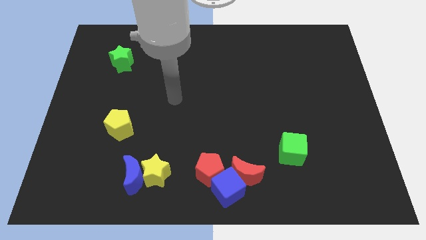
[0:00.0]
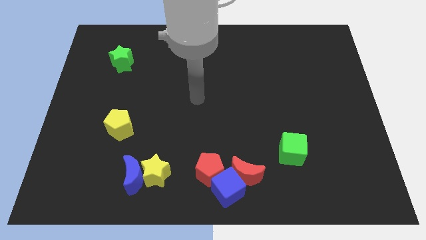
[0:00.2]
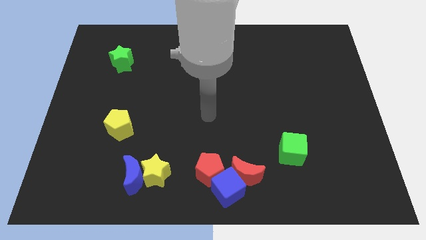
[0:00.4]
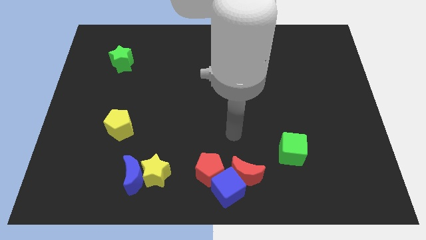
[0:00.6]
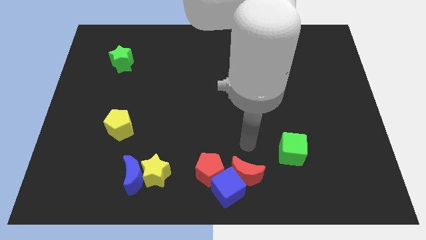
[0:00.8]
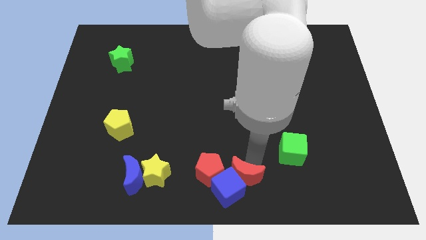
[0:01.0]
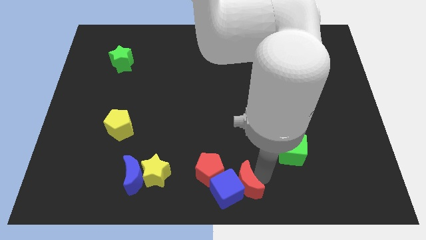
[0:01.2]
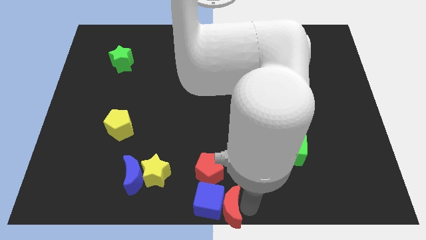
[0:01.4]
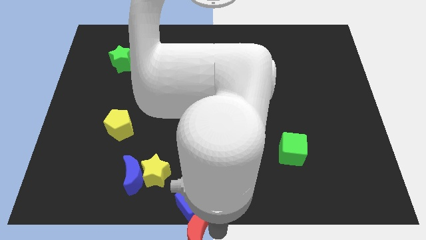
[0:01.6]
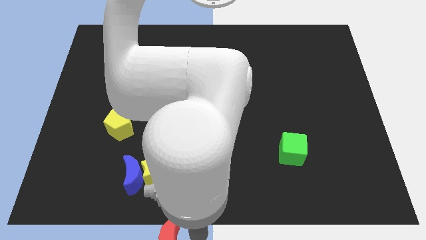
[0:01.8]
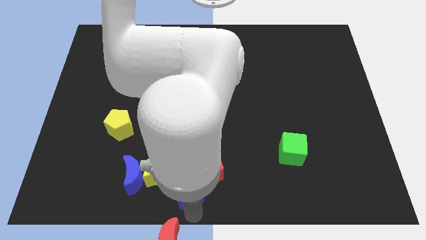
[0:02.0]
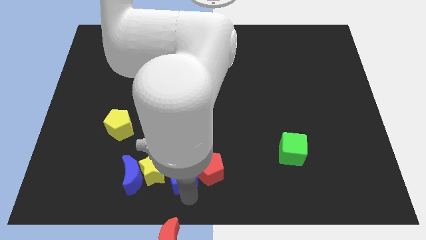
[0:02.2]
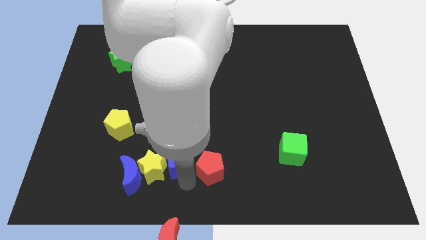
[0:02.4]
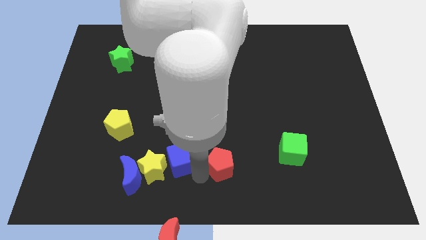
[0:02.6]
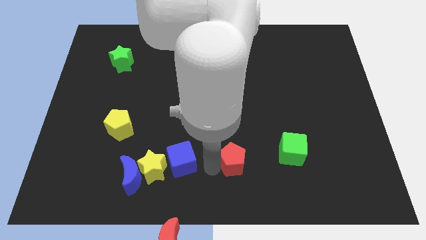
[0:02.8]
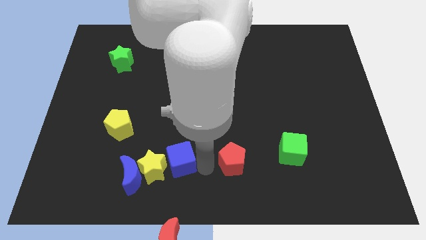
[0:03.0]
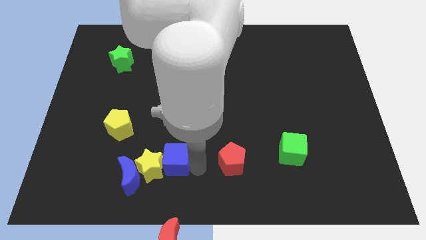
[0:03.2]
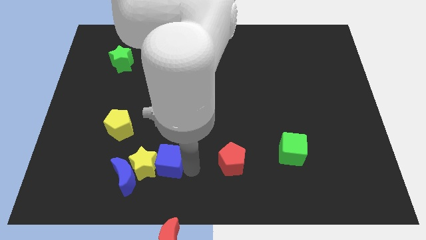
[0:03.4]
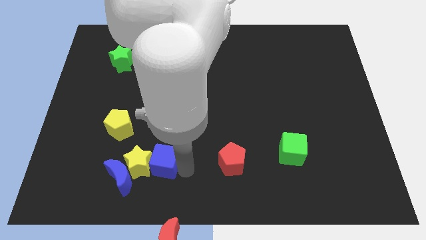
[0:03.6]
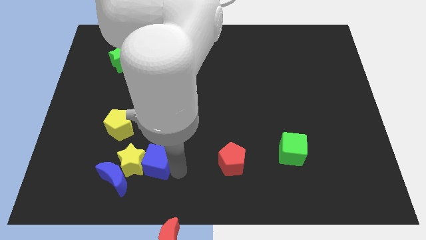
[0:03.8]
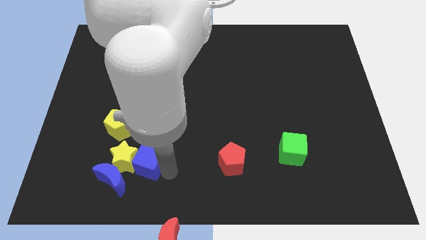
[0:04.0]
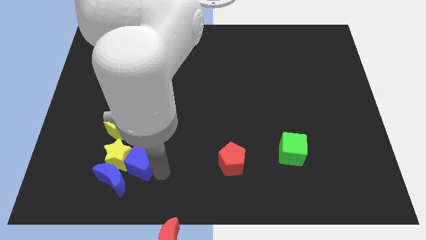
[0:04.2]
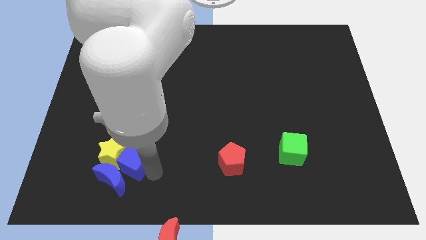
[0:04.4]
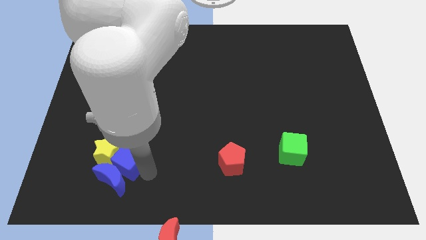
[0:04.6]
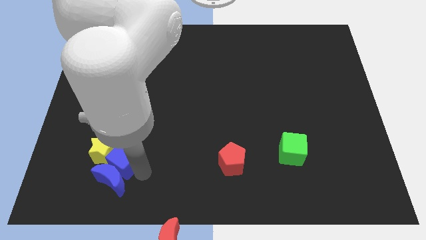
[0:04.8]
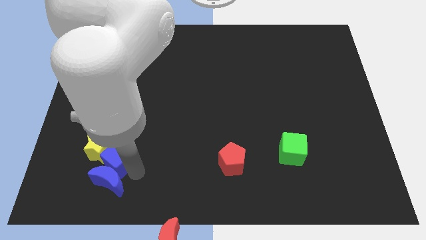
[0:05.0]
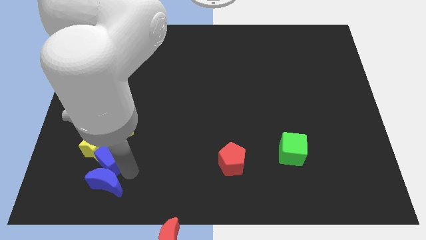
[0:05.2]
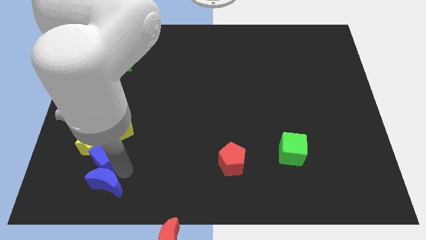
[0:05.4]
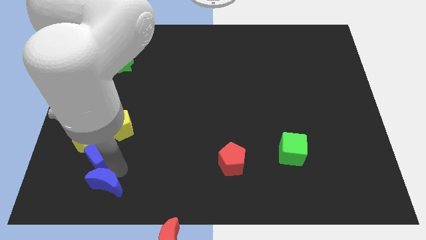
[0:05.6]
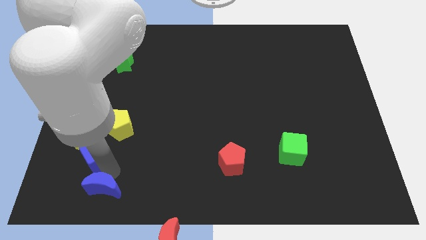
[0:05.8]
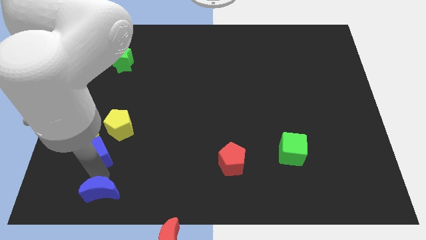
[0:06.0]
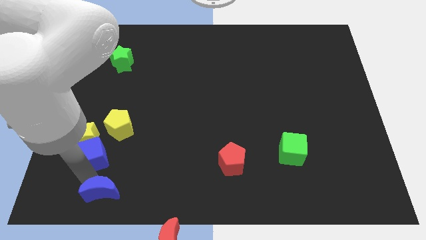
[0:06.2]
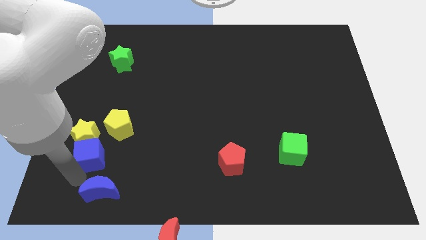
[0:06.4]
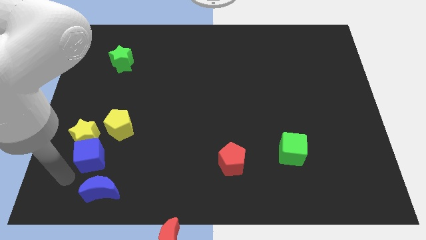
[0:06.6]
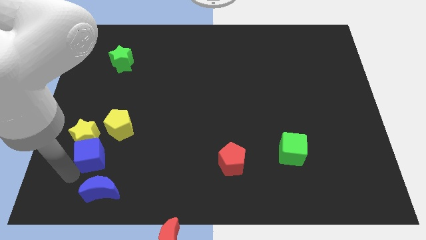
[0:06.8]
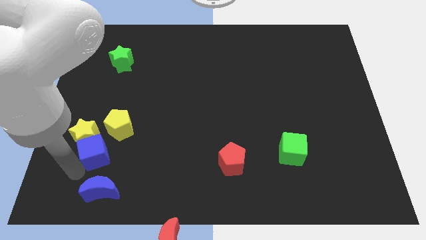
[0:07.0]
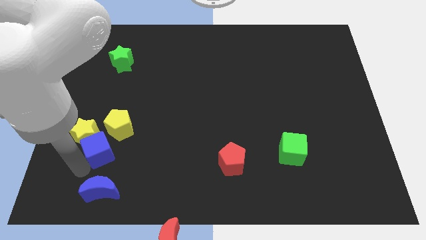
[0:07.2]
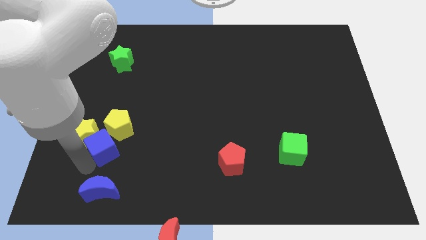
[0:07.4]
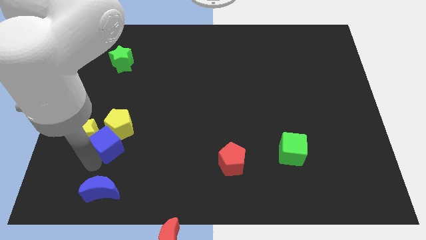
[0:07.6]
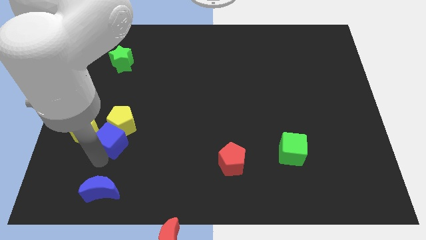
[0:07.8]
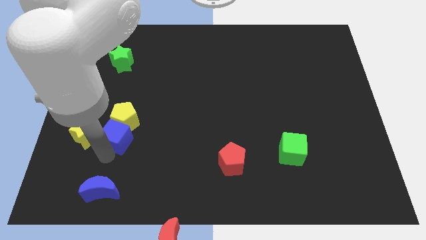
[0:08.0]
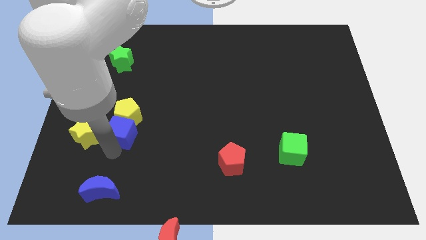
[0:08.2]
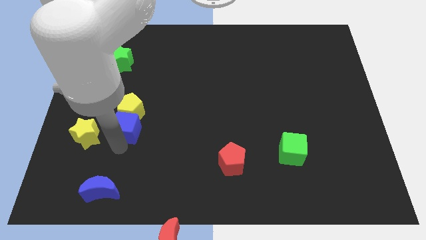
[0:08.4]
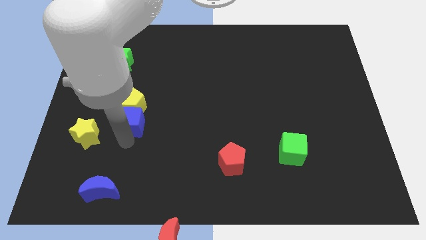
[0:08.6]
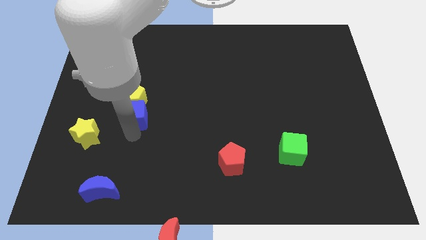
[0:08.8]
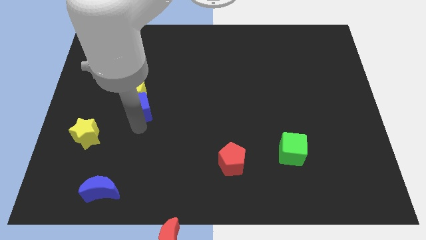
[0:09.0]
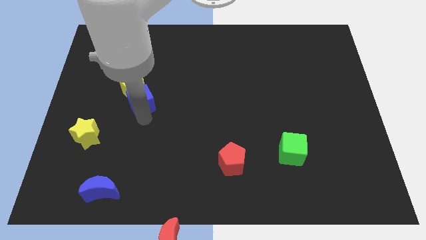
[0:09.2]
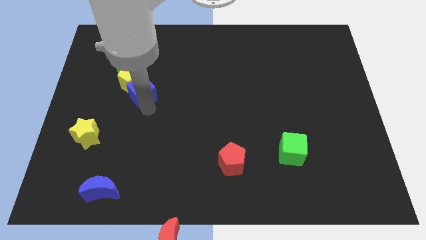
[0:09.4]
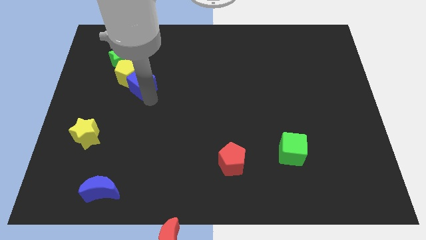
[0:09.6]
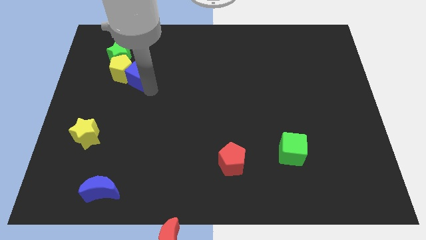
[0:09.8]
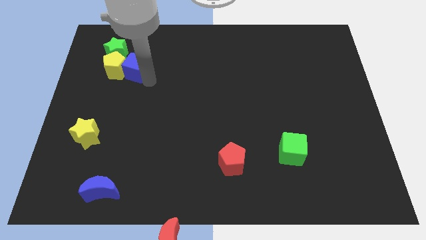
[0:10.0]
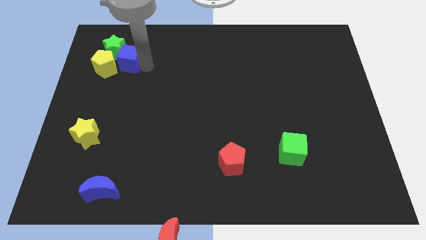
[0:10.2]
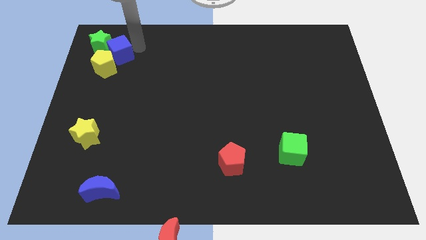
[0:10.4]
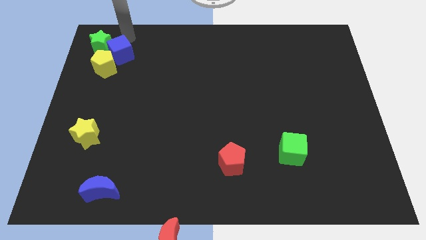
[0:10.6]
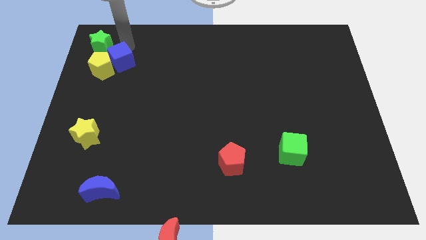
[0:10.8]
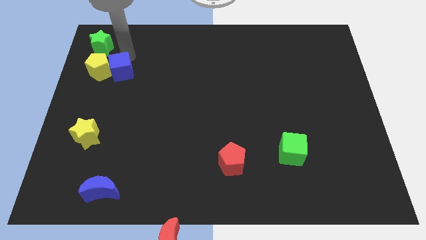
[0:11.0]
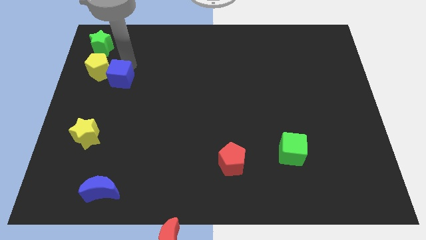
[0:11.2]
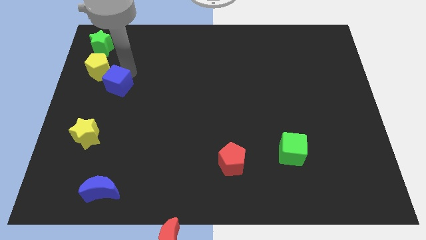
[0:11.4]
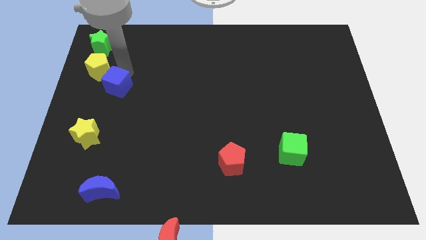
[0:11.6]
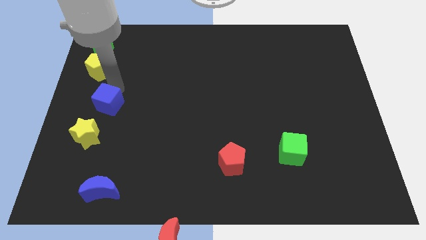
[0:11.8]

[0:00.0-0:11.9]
slide the blue cube to the left side

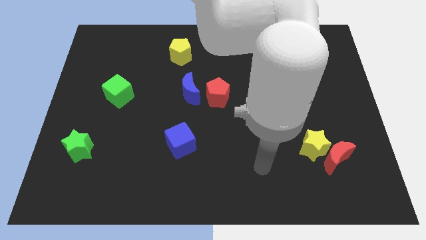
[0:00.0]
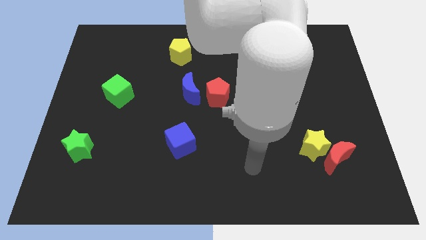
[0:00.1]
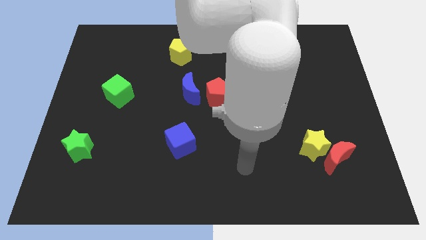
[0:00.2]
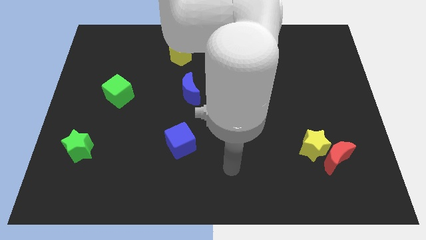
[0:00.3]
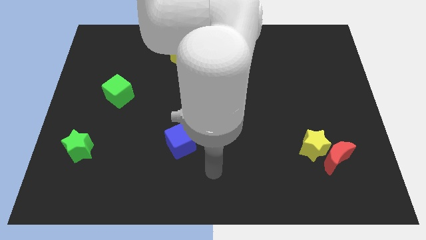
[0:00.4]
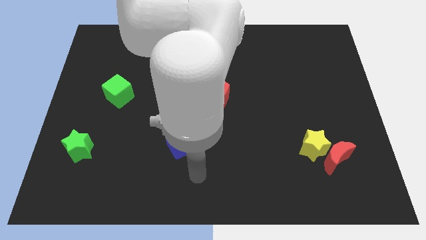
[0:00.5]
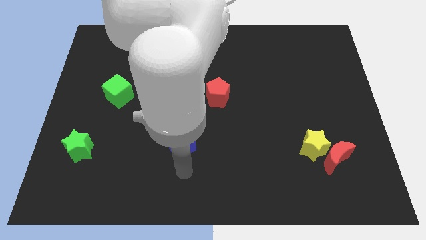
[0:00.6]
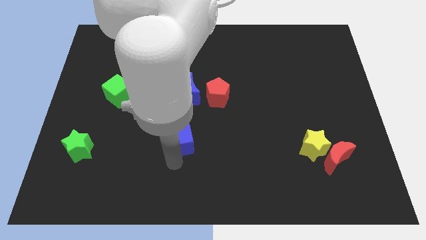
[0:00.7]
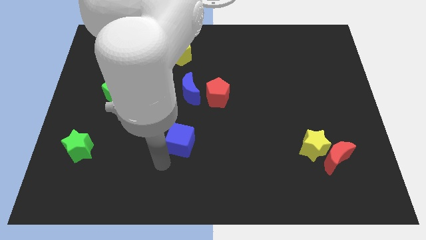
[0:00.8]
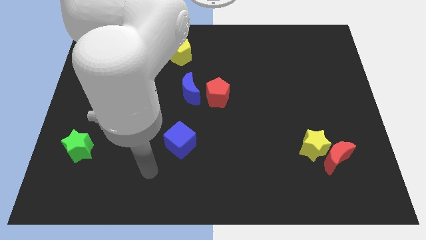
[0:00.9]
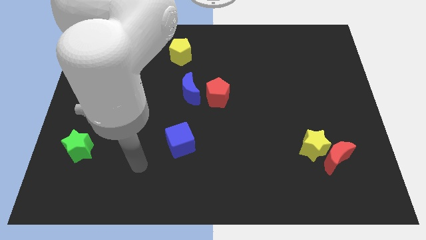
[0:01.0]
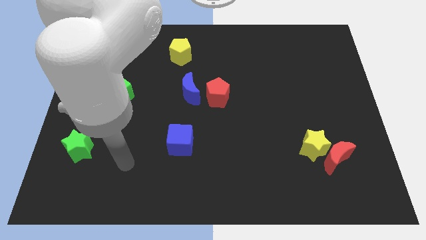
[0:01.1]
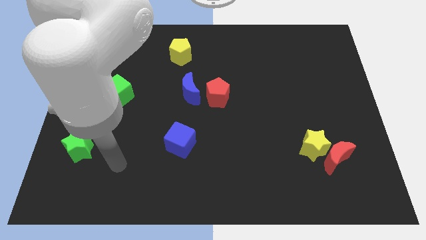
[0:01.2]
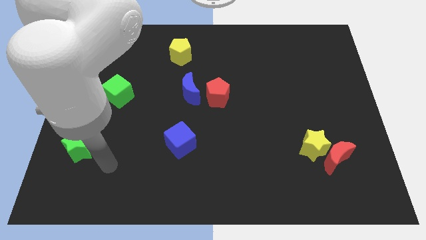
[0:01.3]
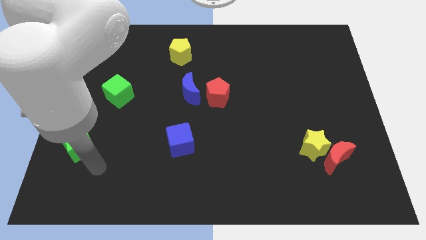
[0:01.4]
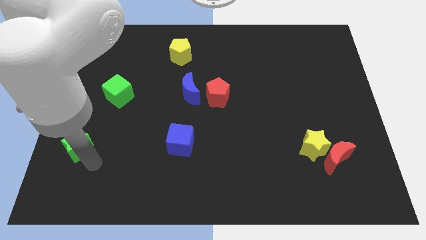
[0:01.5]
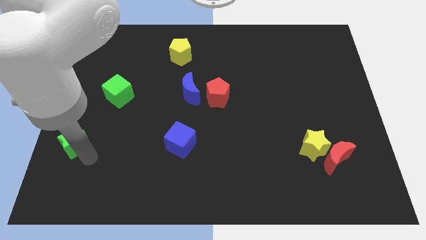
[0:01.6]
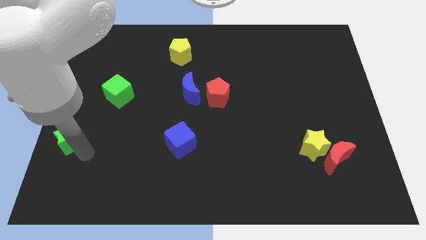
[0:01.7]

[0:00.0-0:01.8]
move the green star to the left side of the board
